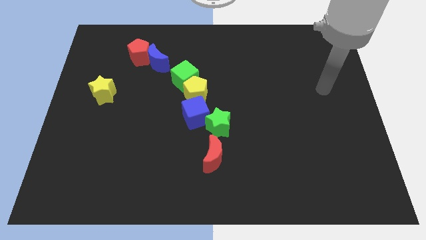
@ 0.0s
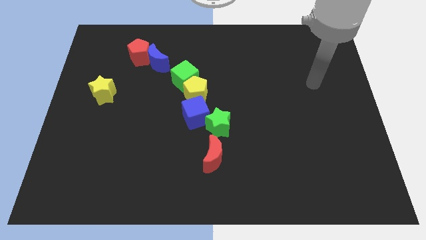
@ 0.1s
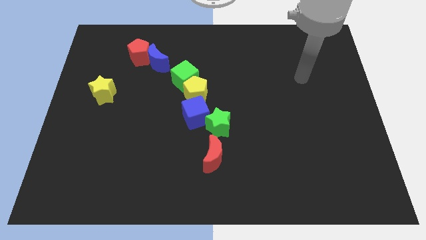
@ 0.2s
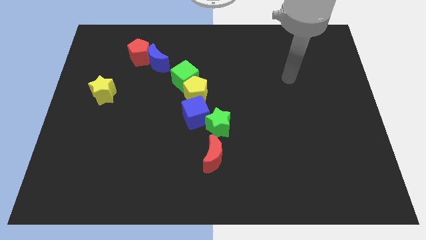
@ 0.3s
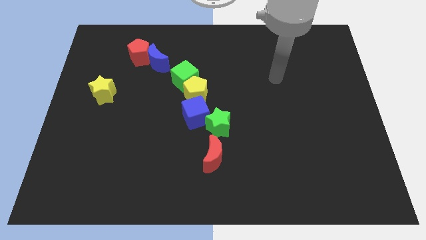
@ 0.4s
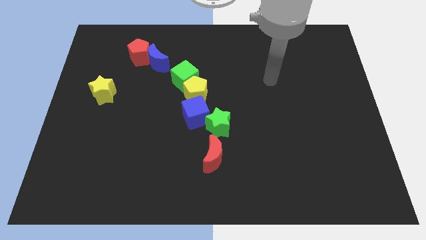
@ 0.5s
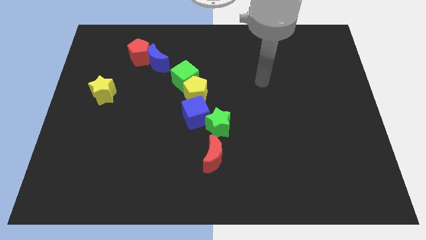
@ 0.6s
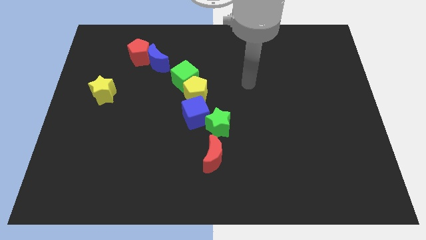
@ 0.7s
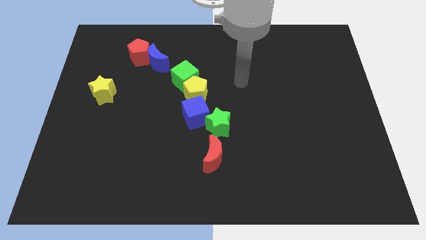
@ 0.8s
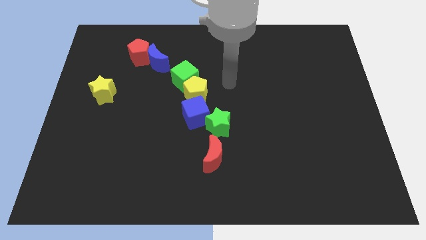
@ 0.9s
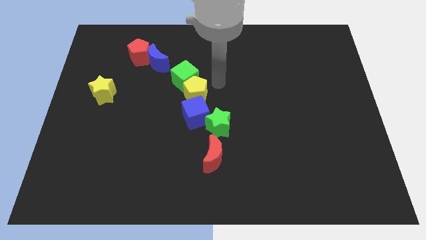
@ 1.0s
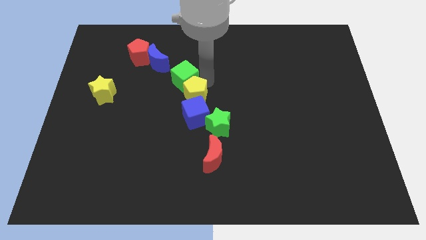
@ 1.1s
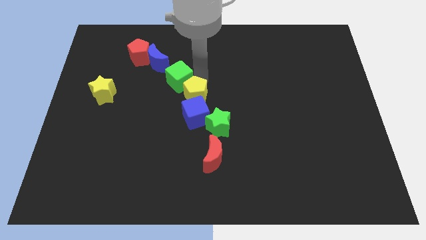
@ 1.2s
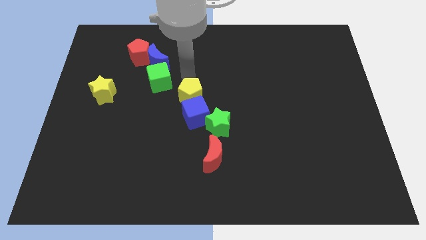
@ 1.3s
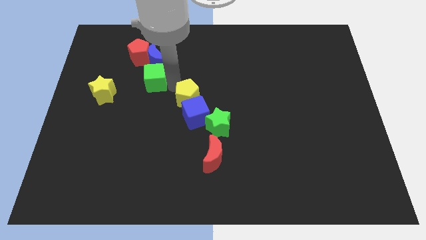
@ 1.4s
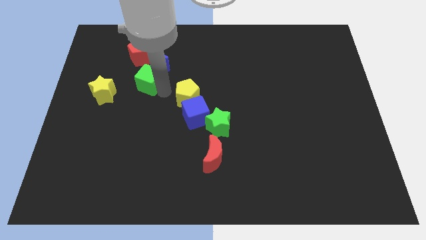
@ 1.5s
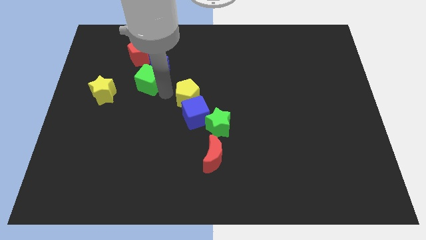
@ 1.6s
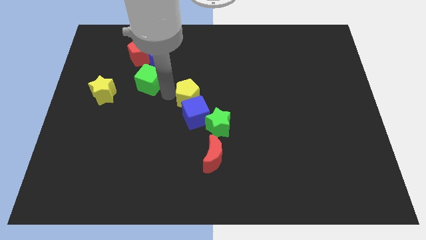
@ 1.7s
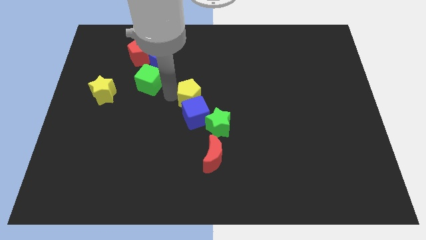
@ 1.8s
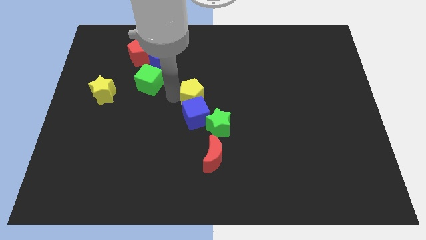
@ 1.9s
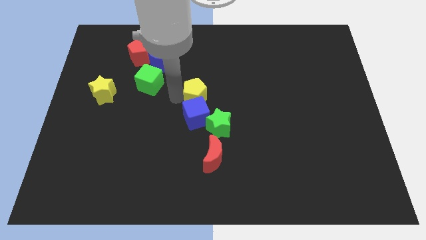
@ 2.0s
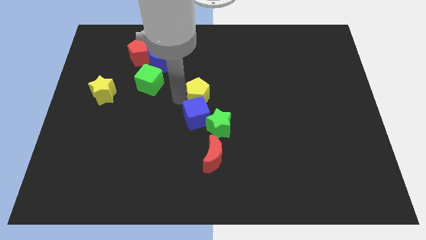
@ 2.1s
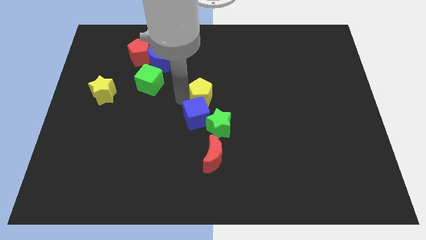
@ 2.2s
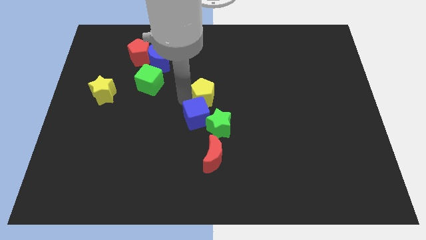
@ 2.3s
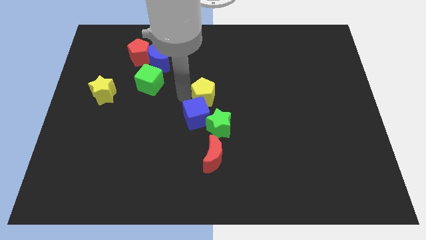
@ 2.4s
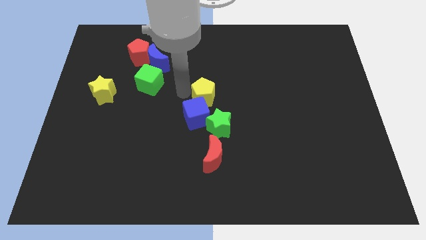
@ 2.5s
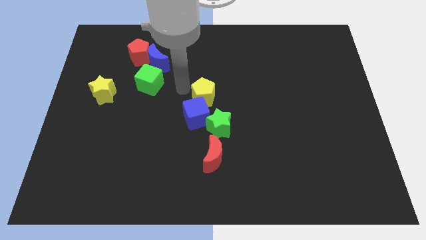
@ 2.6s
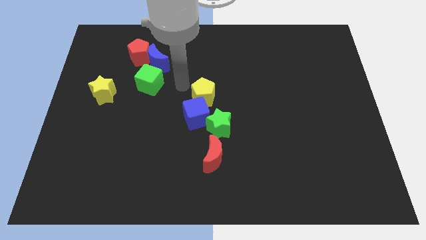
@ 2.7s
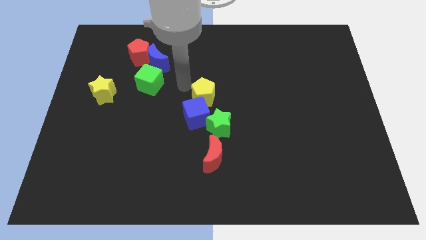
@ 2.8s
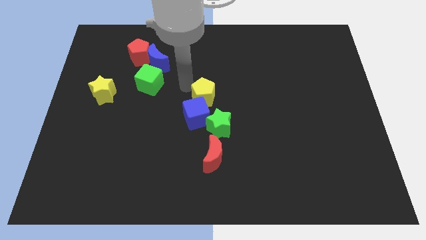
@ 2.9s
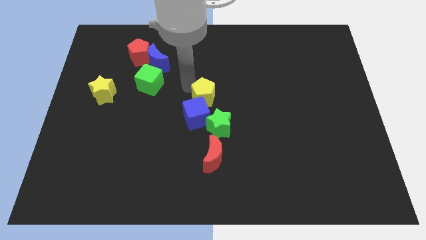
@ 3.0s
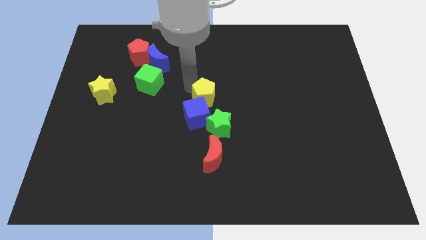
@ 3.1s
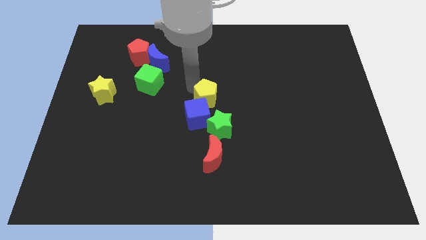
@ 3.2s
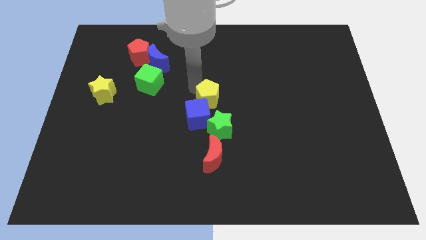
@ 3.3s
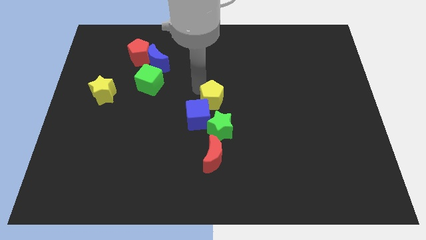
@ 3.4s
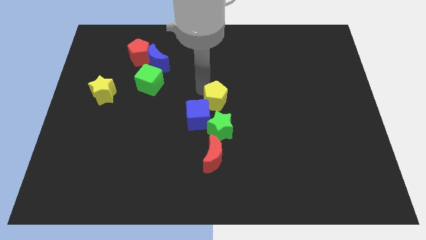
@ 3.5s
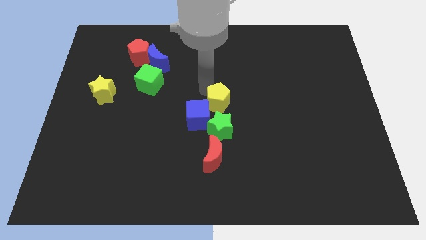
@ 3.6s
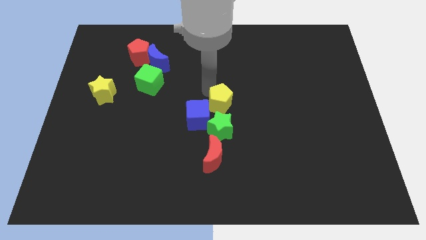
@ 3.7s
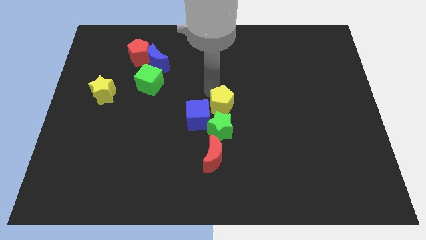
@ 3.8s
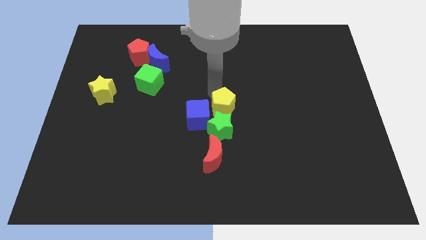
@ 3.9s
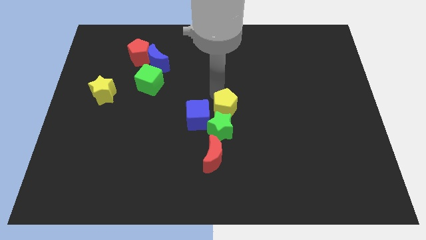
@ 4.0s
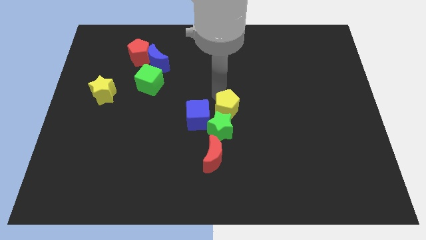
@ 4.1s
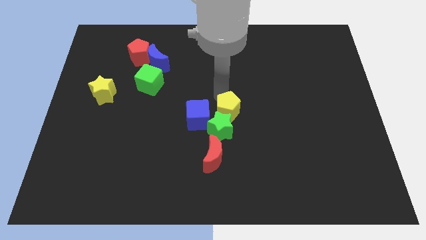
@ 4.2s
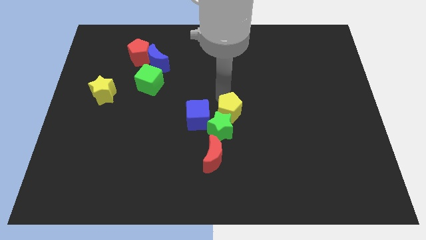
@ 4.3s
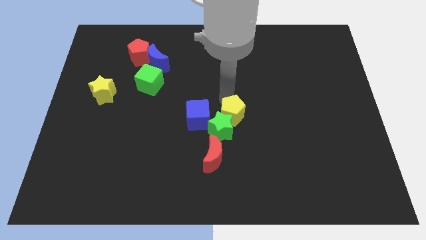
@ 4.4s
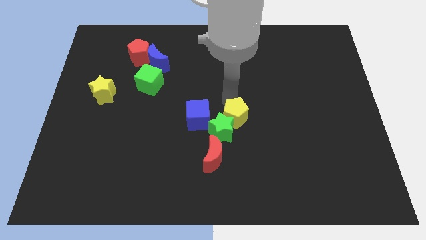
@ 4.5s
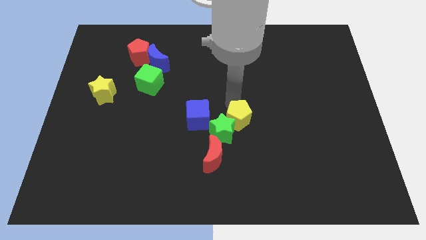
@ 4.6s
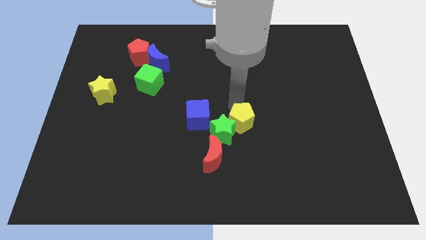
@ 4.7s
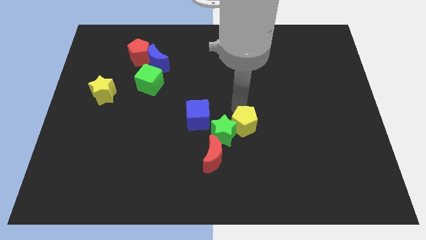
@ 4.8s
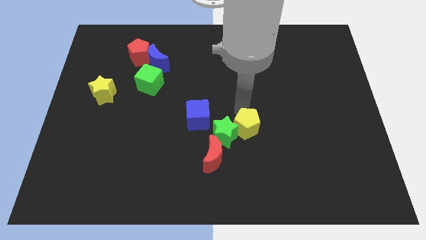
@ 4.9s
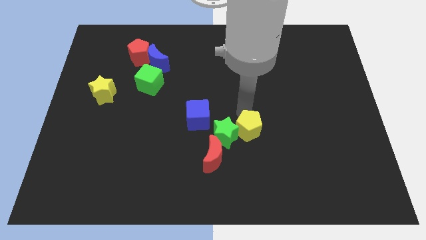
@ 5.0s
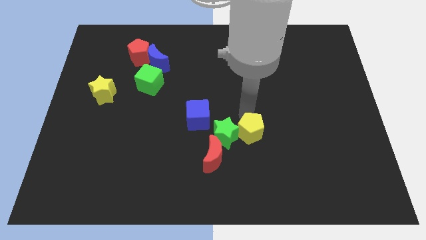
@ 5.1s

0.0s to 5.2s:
move the yellow pentagon to the bottom right side of the green star

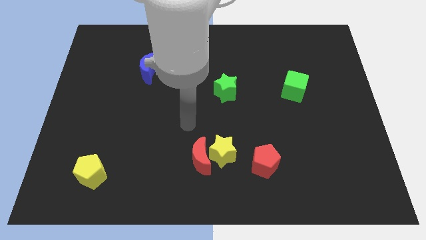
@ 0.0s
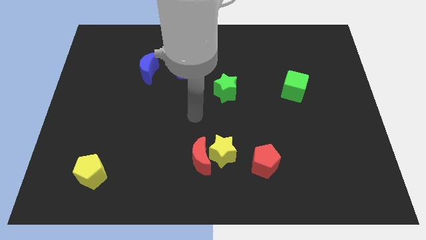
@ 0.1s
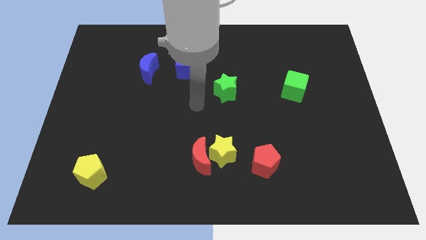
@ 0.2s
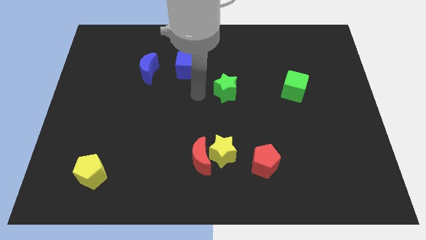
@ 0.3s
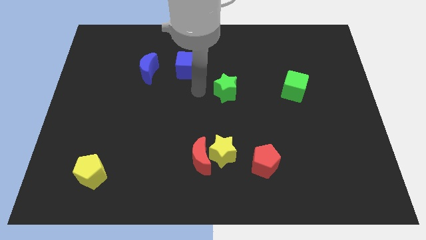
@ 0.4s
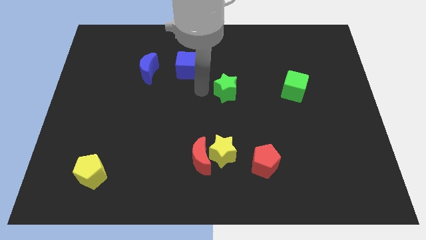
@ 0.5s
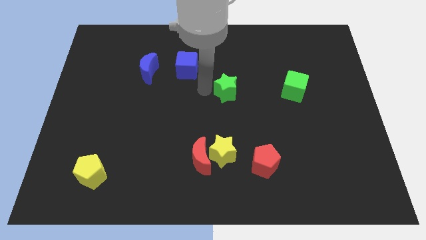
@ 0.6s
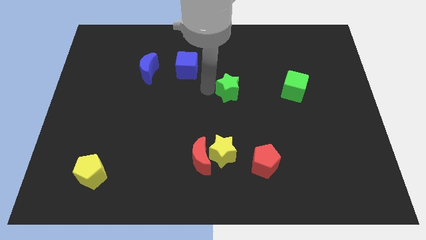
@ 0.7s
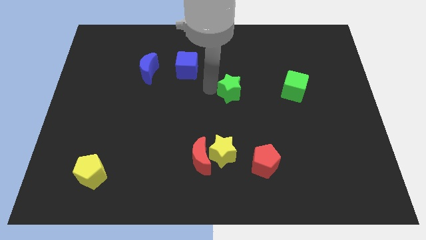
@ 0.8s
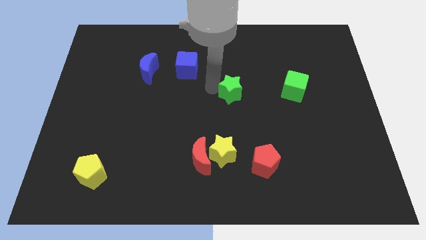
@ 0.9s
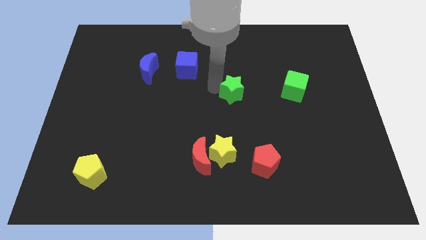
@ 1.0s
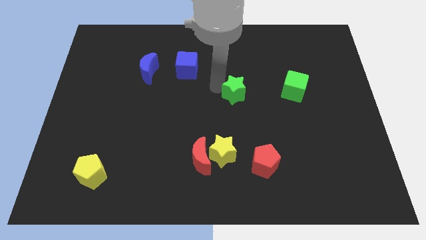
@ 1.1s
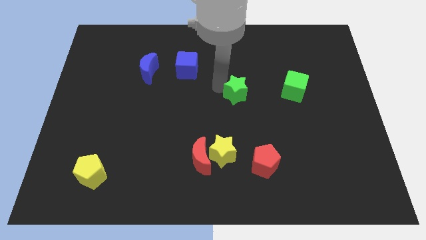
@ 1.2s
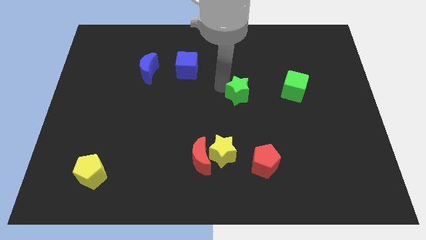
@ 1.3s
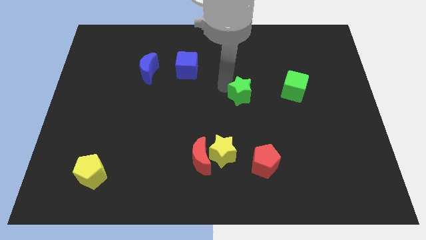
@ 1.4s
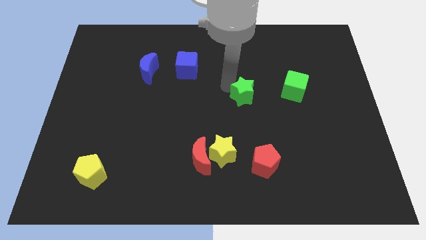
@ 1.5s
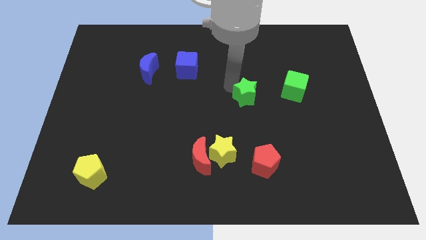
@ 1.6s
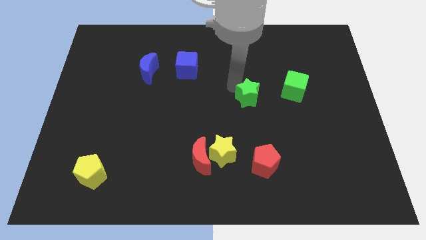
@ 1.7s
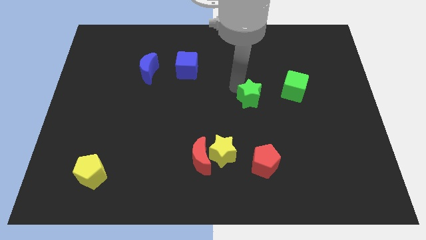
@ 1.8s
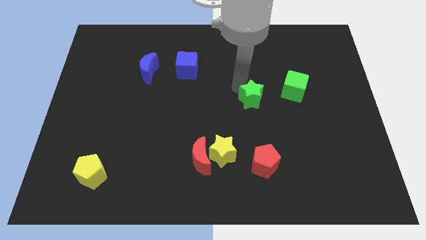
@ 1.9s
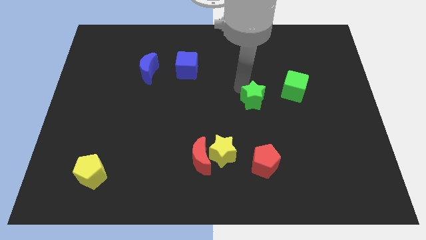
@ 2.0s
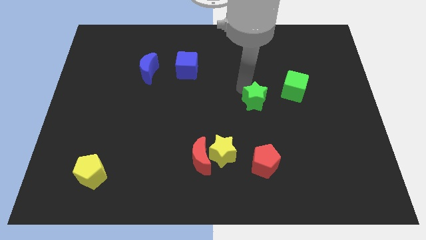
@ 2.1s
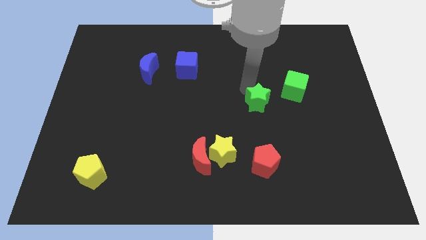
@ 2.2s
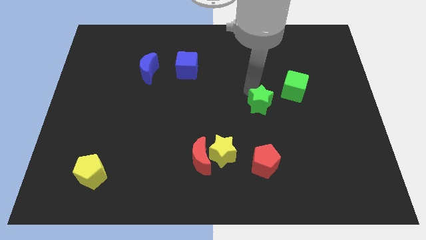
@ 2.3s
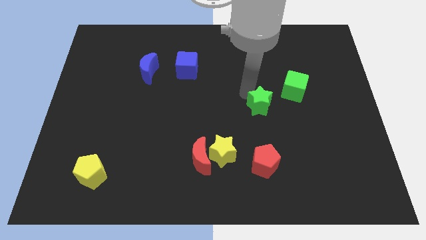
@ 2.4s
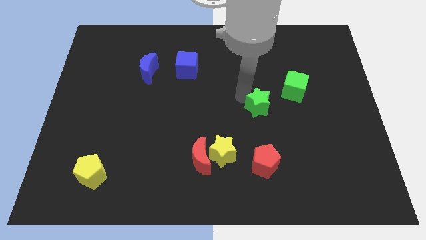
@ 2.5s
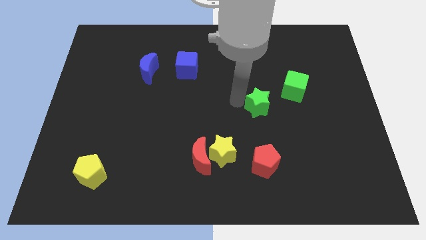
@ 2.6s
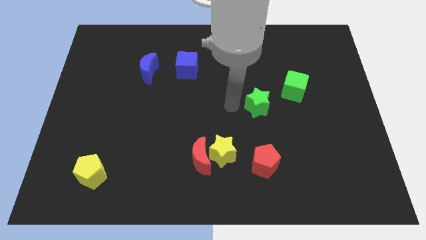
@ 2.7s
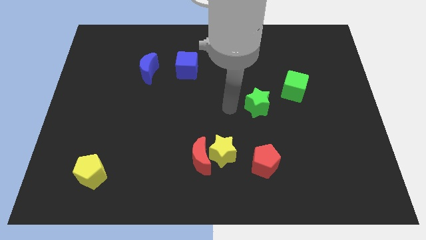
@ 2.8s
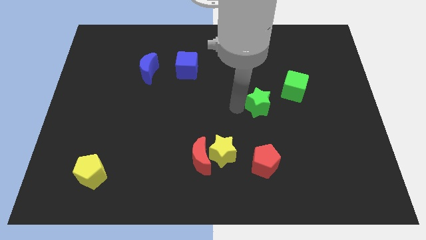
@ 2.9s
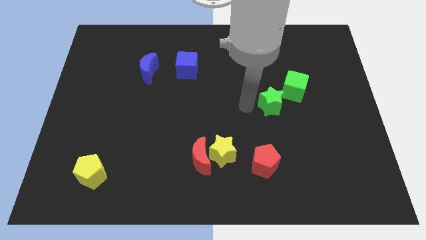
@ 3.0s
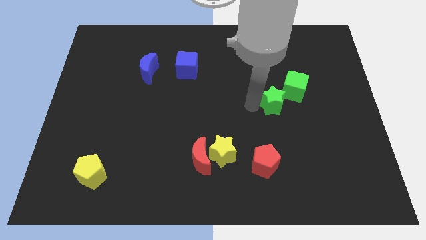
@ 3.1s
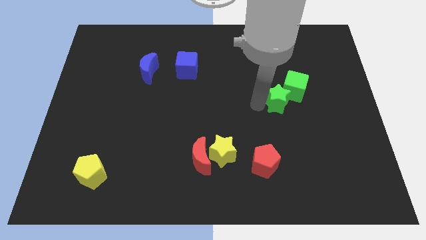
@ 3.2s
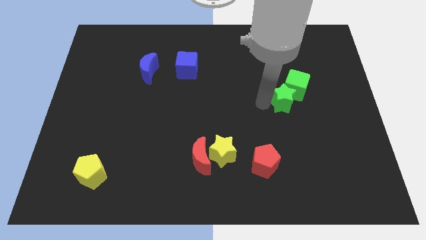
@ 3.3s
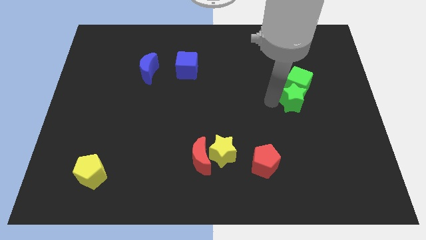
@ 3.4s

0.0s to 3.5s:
put the green star to the bottom right side of the green cube
